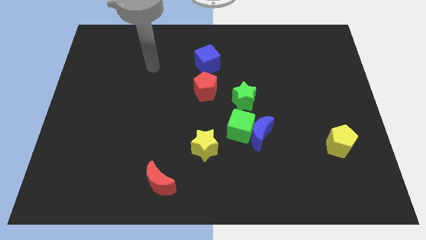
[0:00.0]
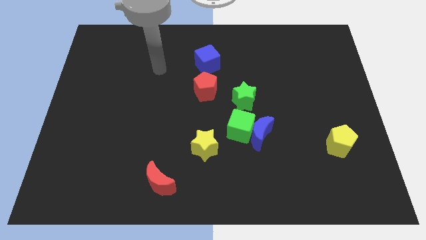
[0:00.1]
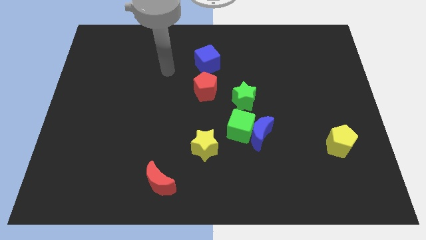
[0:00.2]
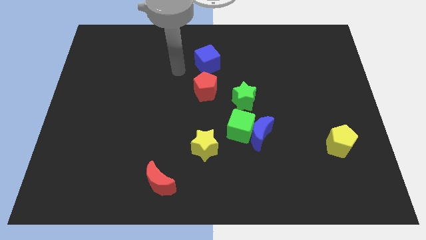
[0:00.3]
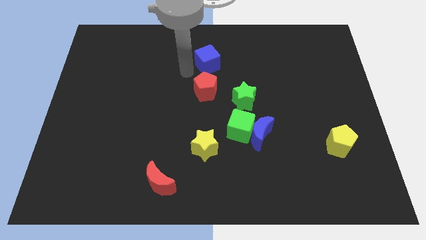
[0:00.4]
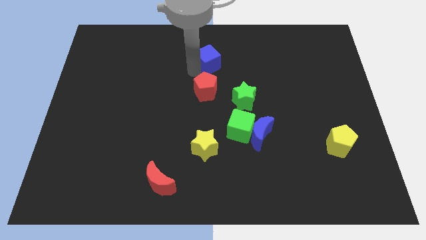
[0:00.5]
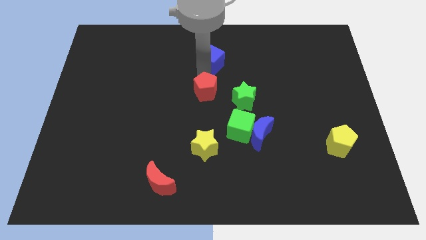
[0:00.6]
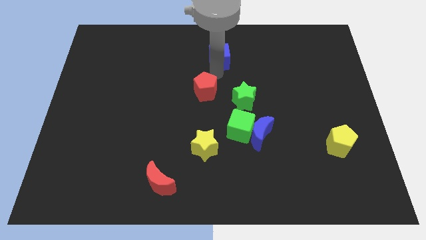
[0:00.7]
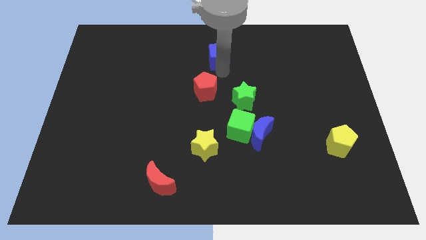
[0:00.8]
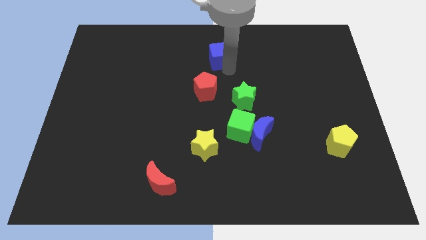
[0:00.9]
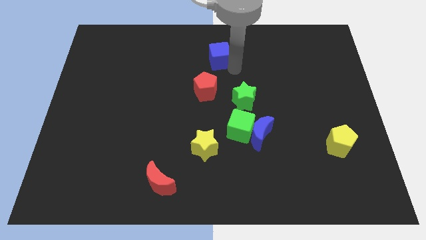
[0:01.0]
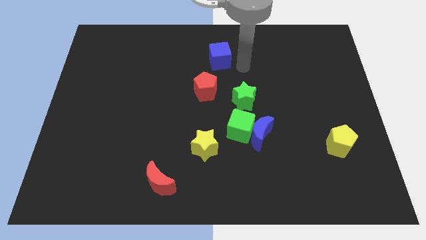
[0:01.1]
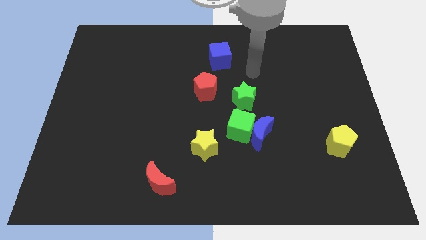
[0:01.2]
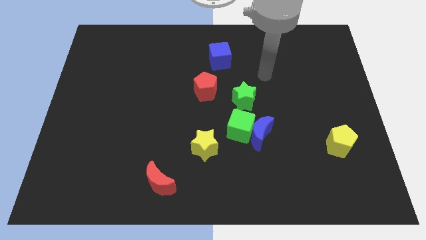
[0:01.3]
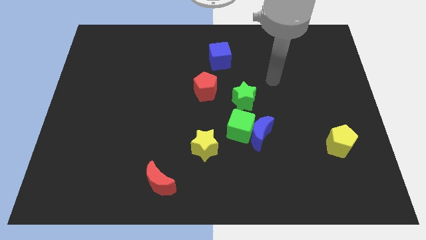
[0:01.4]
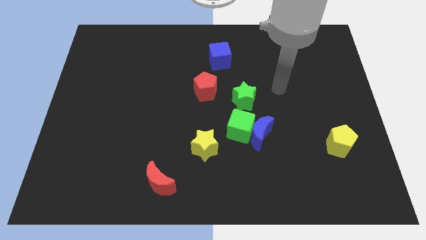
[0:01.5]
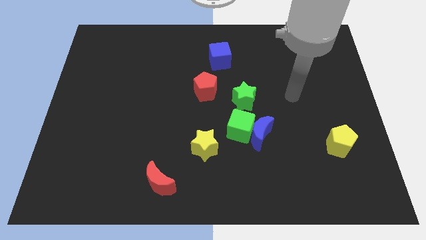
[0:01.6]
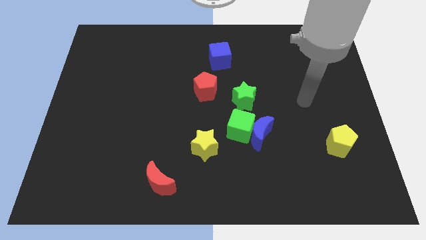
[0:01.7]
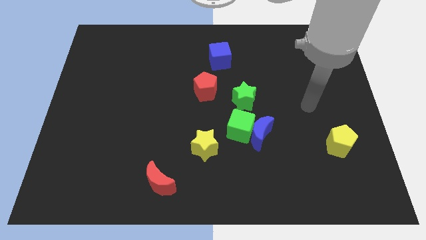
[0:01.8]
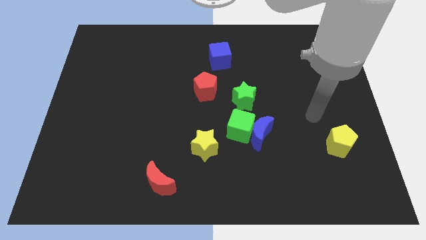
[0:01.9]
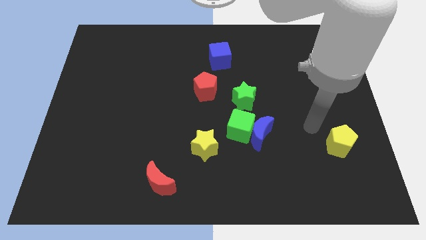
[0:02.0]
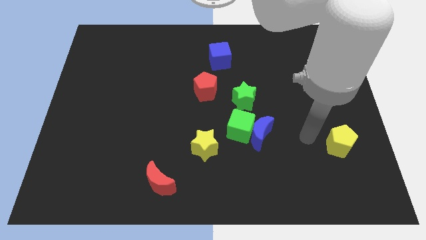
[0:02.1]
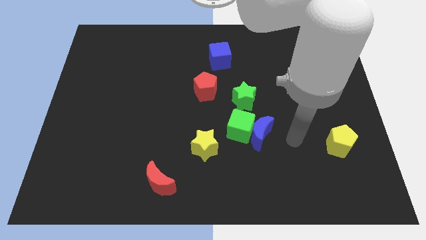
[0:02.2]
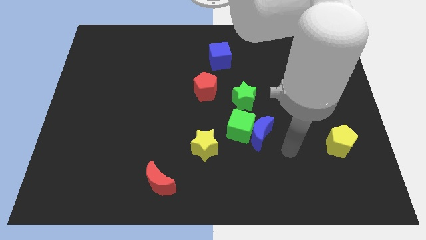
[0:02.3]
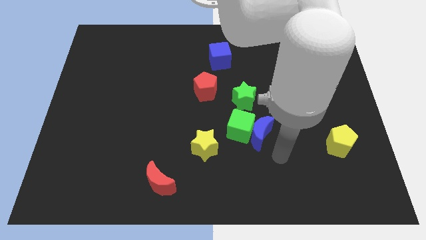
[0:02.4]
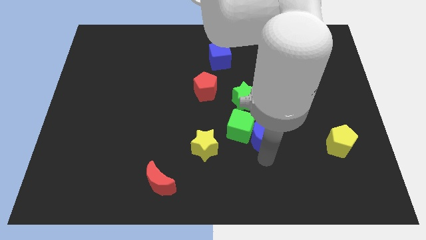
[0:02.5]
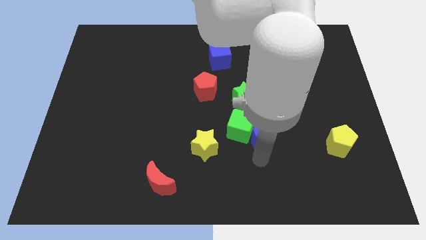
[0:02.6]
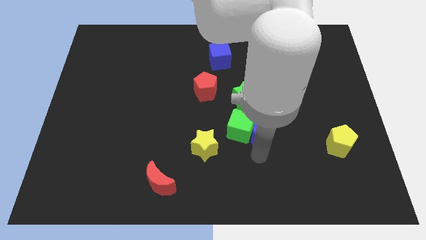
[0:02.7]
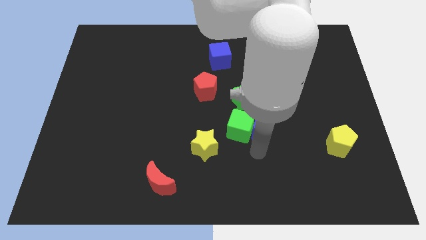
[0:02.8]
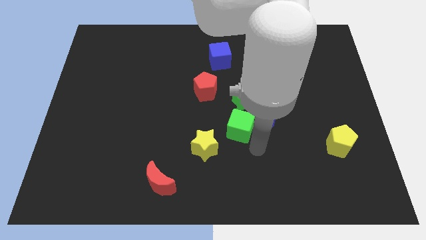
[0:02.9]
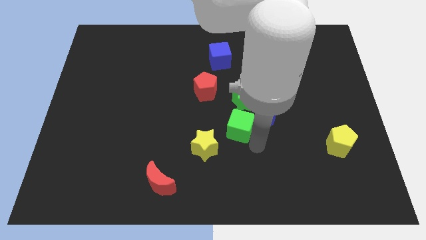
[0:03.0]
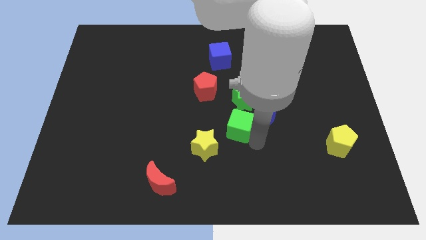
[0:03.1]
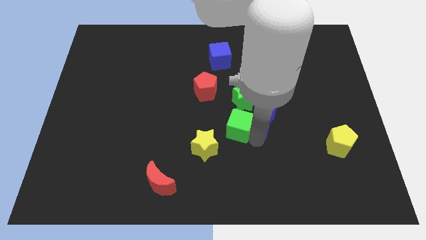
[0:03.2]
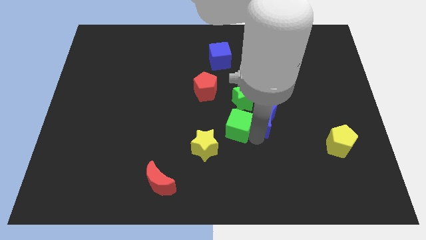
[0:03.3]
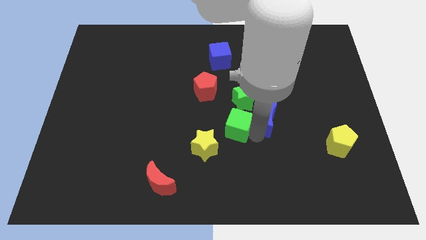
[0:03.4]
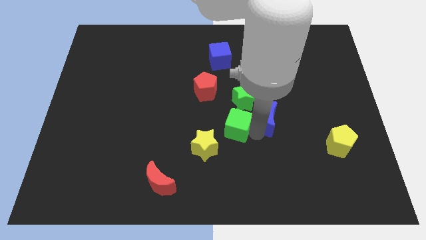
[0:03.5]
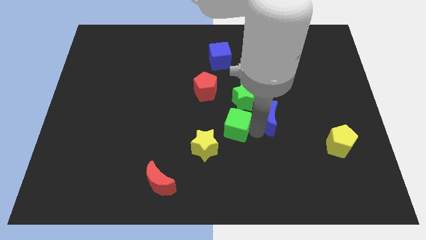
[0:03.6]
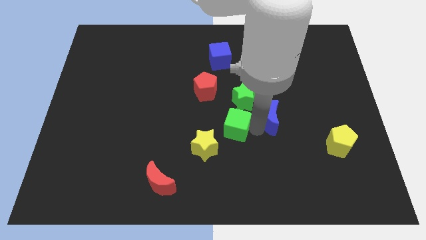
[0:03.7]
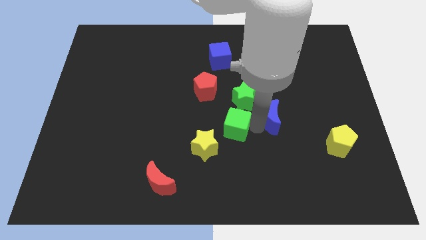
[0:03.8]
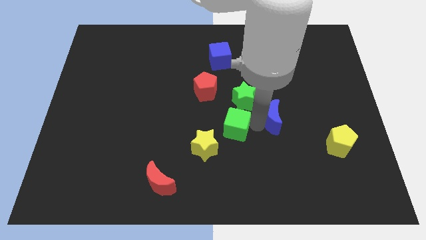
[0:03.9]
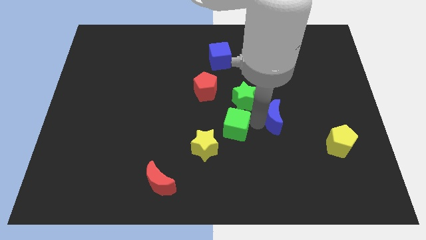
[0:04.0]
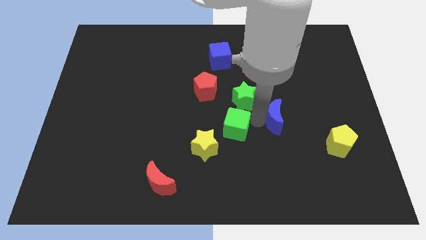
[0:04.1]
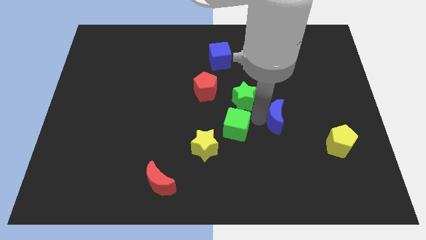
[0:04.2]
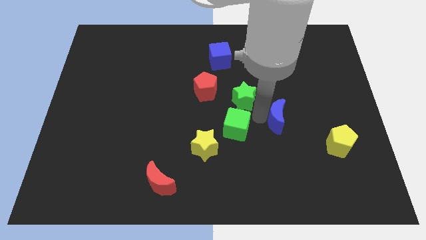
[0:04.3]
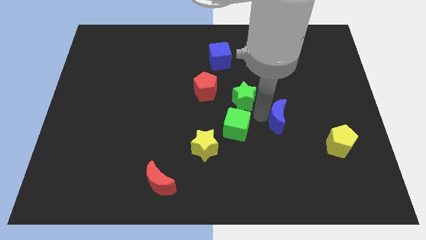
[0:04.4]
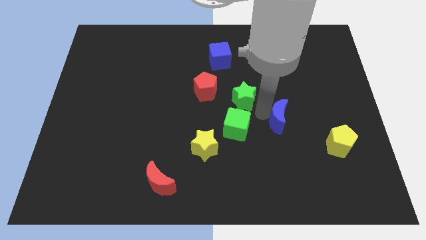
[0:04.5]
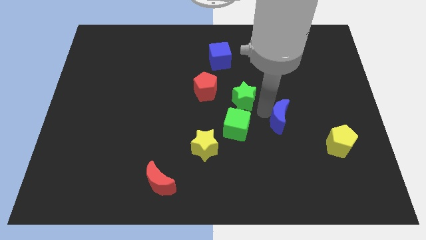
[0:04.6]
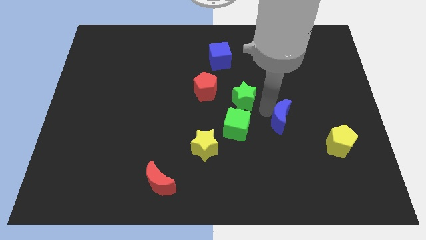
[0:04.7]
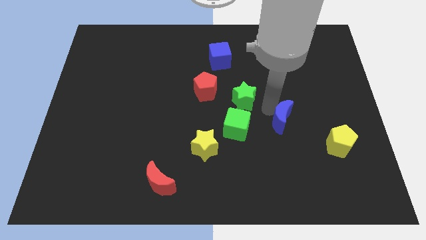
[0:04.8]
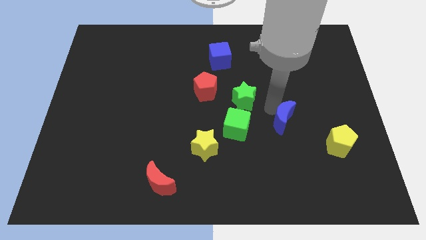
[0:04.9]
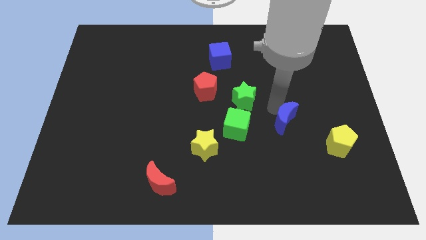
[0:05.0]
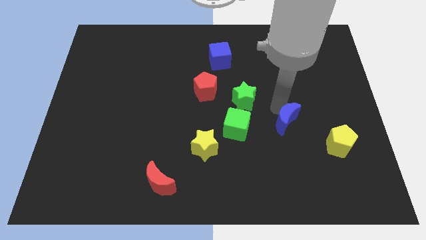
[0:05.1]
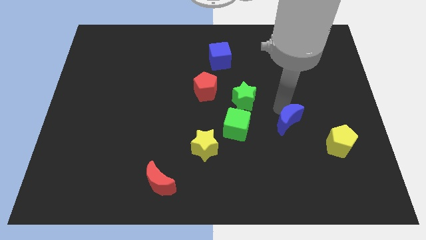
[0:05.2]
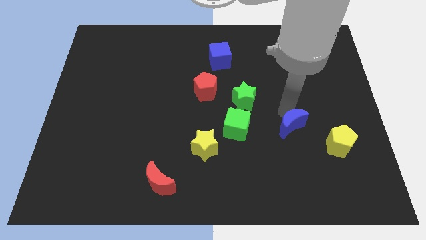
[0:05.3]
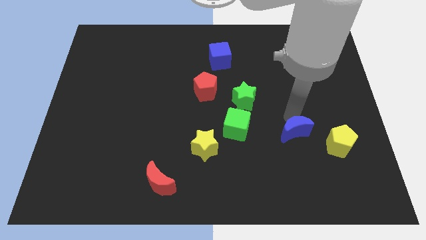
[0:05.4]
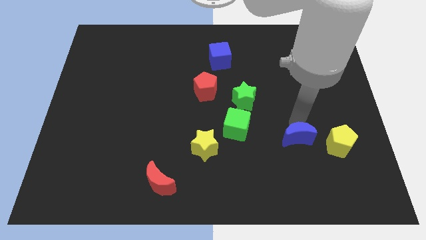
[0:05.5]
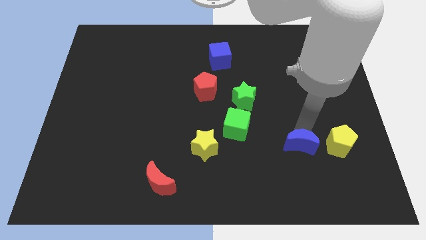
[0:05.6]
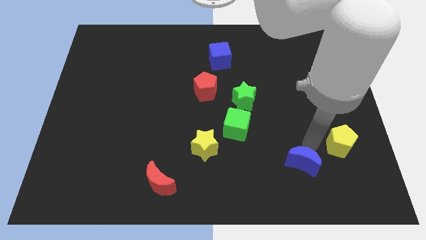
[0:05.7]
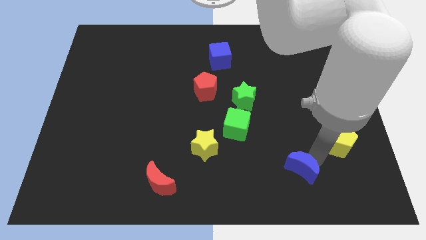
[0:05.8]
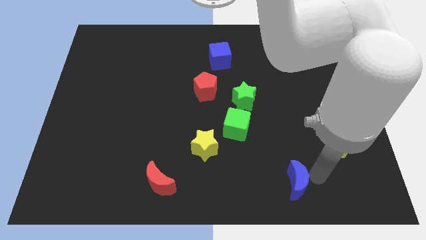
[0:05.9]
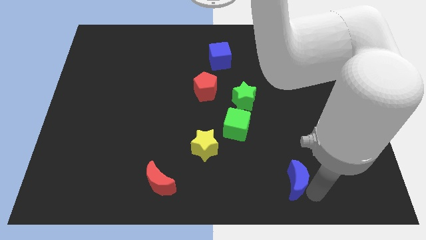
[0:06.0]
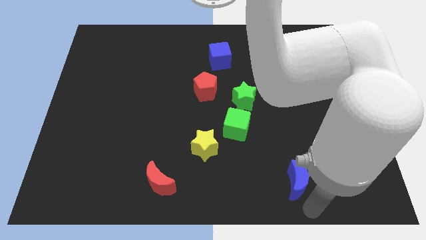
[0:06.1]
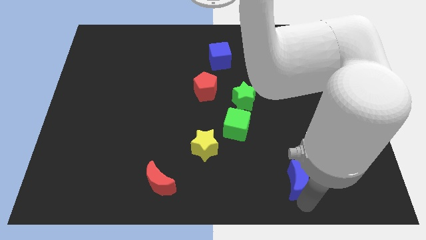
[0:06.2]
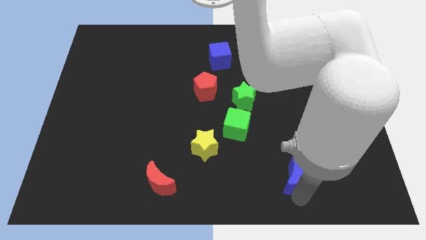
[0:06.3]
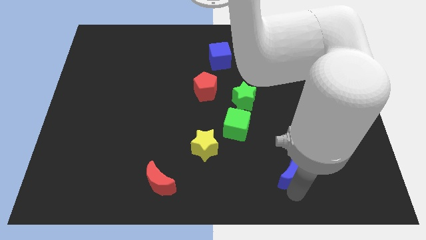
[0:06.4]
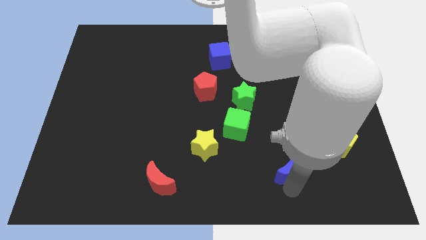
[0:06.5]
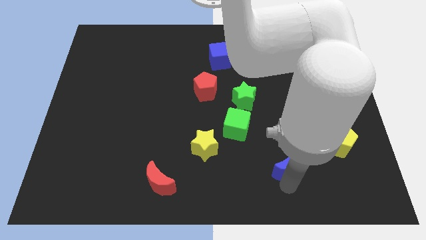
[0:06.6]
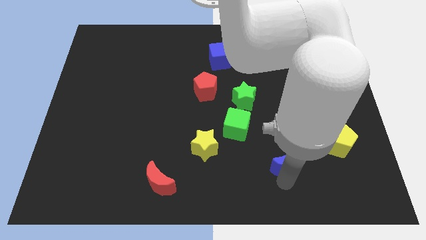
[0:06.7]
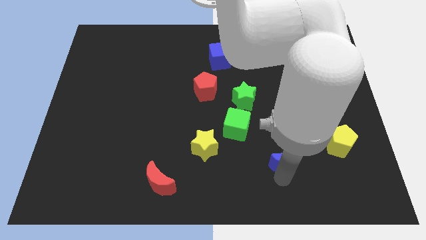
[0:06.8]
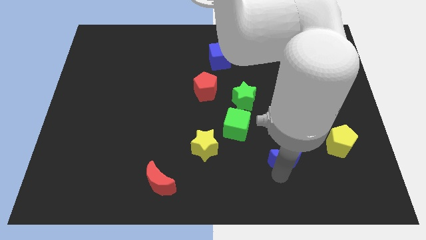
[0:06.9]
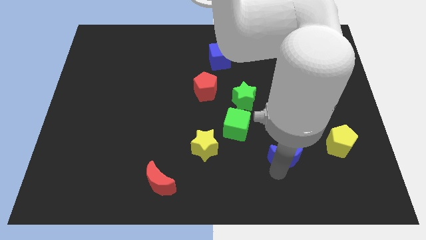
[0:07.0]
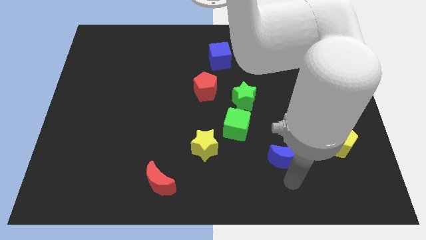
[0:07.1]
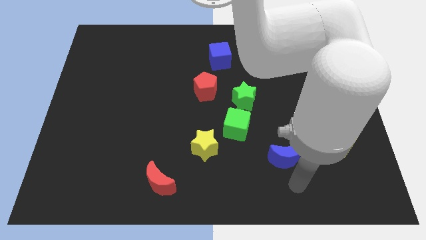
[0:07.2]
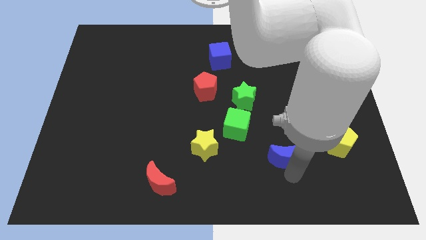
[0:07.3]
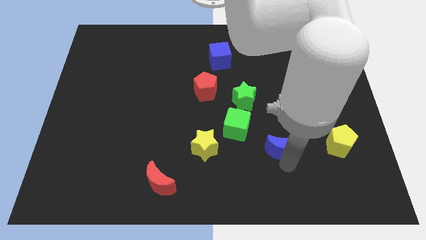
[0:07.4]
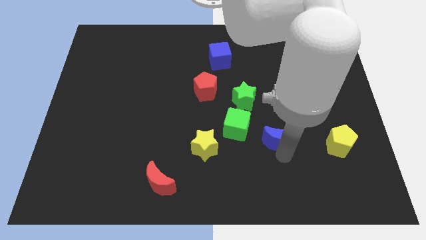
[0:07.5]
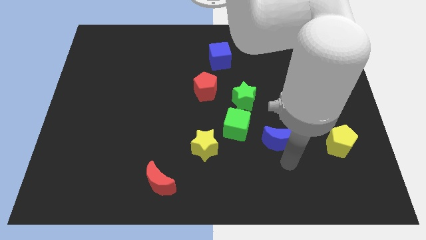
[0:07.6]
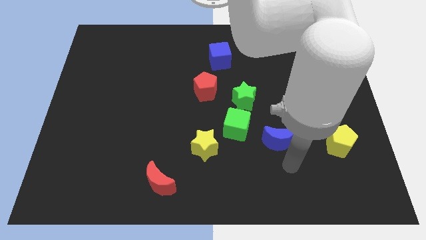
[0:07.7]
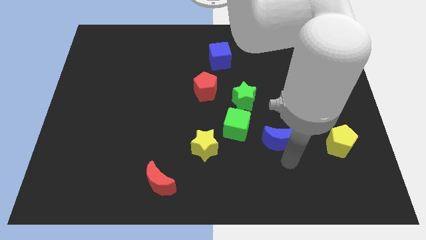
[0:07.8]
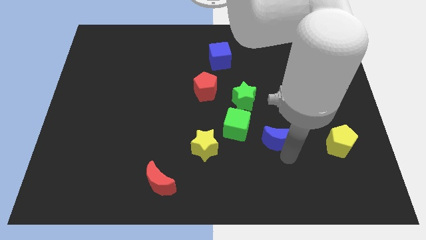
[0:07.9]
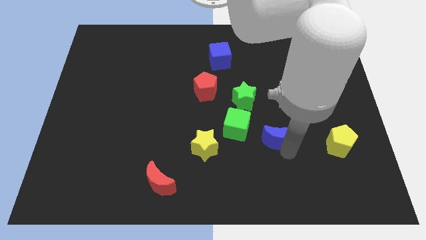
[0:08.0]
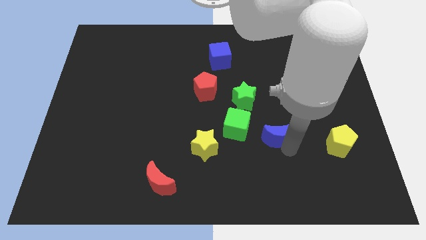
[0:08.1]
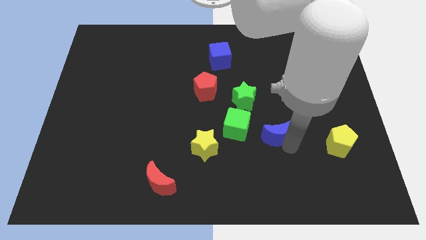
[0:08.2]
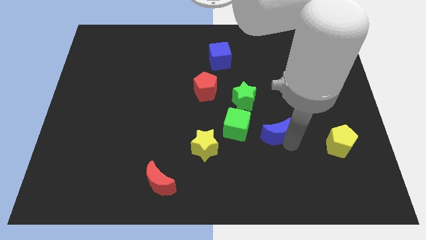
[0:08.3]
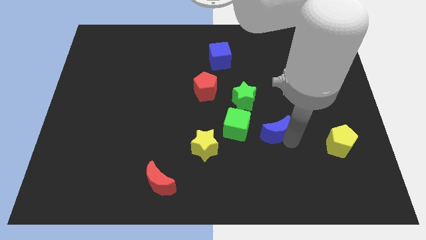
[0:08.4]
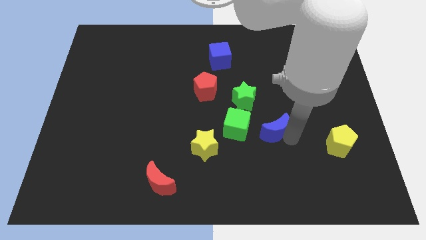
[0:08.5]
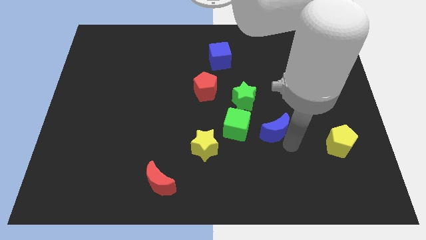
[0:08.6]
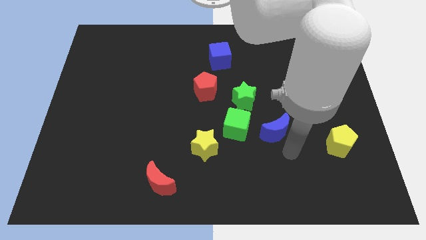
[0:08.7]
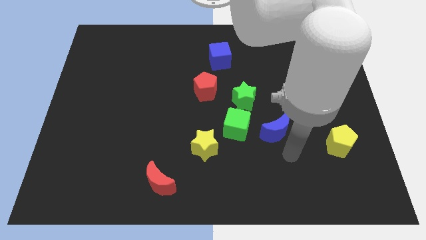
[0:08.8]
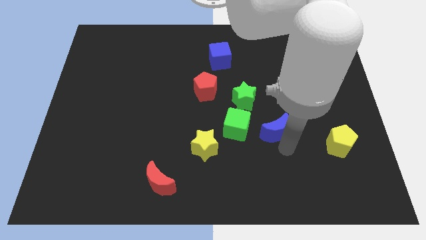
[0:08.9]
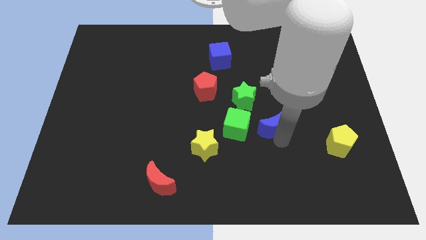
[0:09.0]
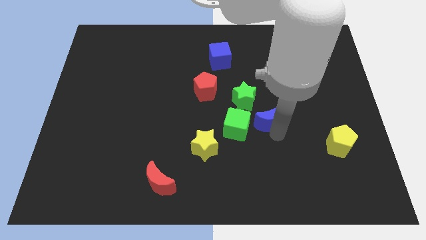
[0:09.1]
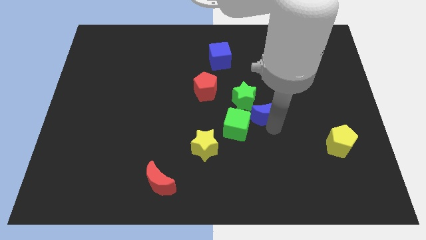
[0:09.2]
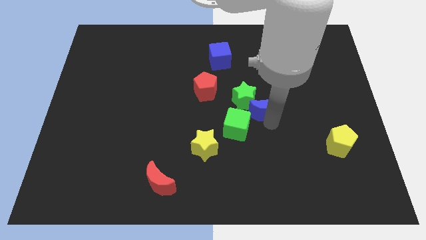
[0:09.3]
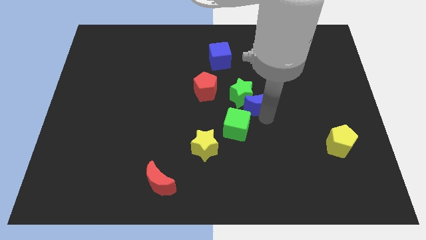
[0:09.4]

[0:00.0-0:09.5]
slightly move the blue moon up
